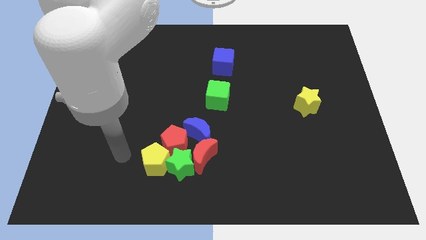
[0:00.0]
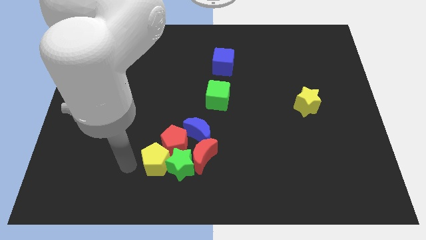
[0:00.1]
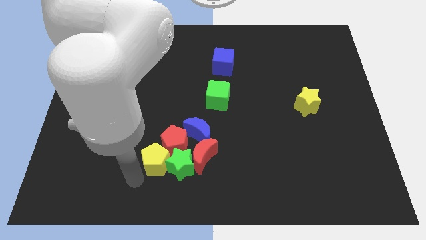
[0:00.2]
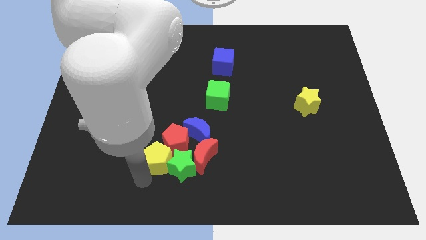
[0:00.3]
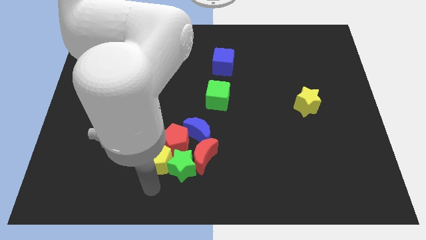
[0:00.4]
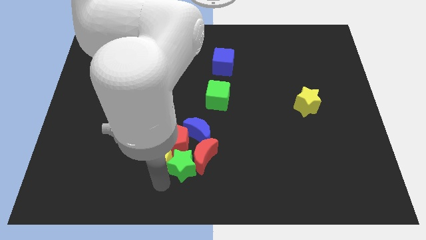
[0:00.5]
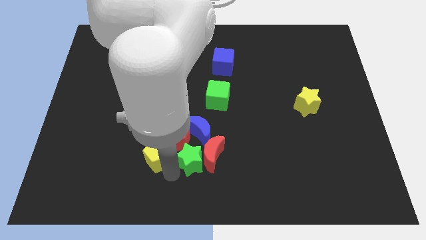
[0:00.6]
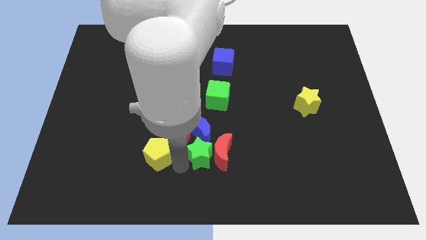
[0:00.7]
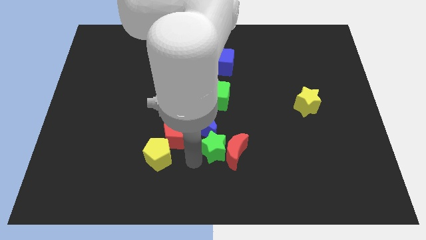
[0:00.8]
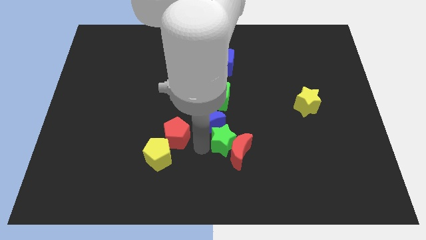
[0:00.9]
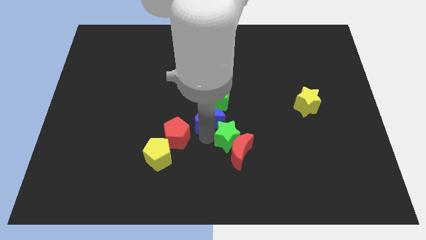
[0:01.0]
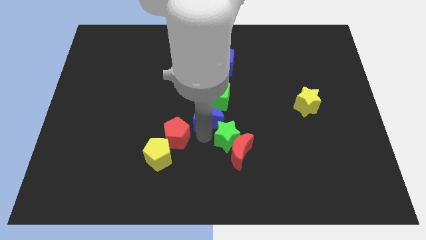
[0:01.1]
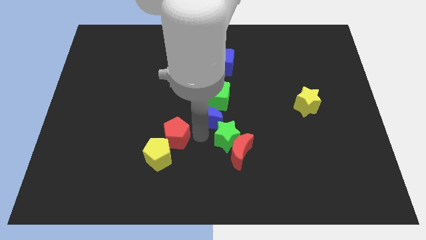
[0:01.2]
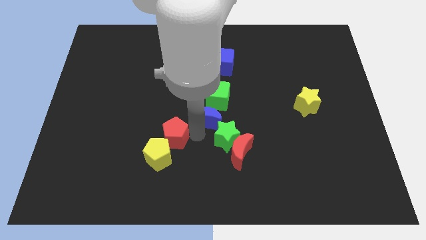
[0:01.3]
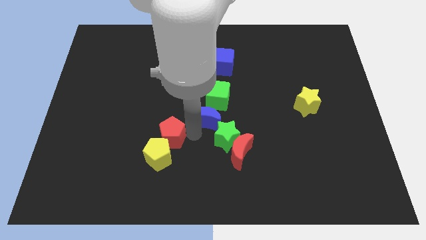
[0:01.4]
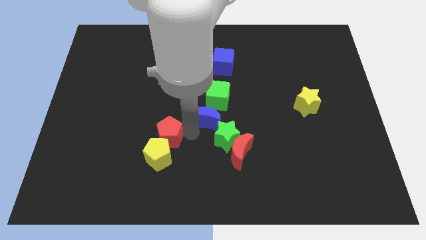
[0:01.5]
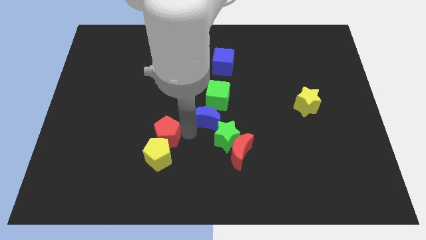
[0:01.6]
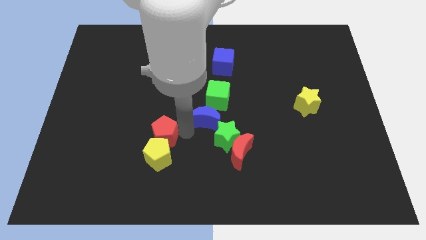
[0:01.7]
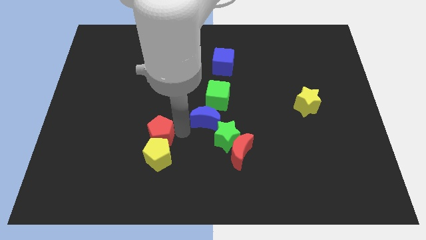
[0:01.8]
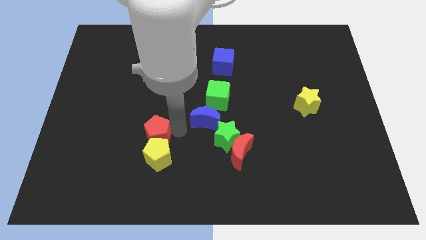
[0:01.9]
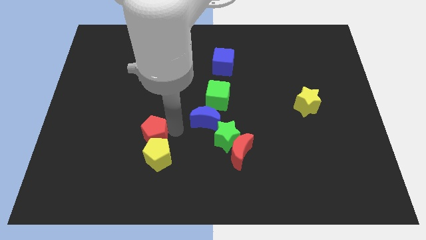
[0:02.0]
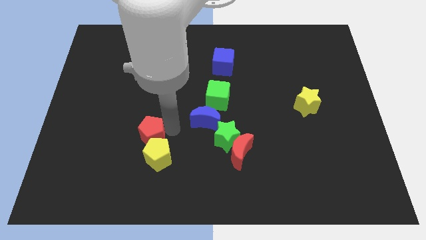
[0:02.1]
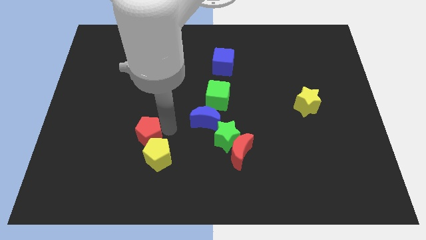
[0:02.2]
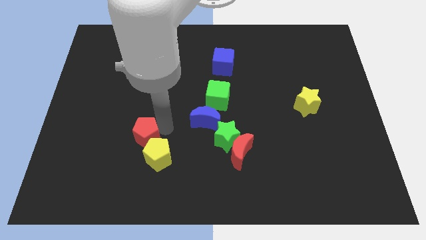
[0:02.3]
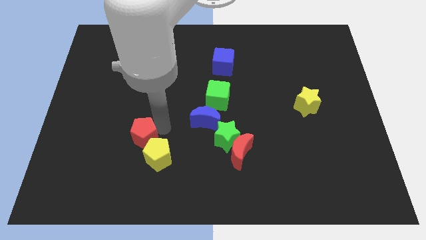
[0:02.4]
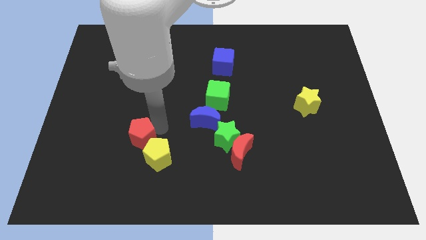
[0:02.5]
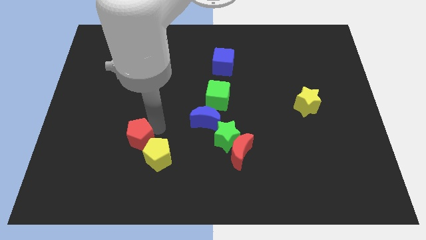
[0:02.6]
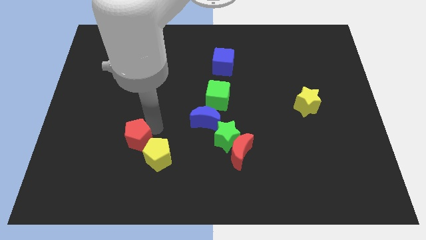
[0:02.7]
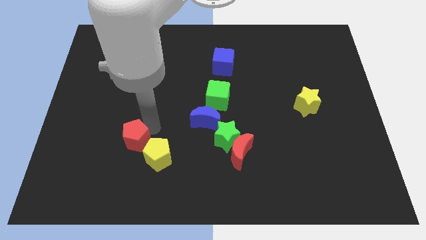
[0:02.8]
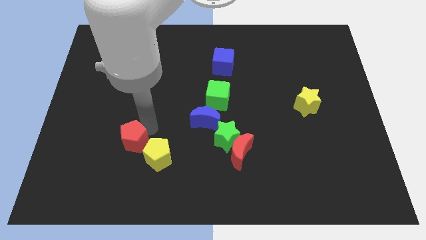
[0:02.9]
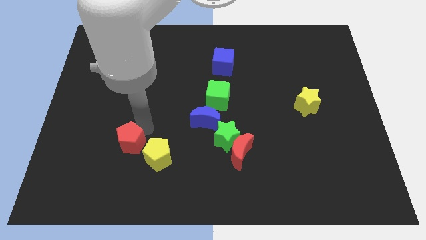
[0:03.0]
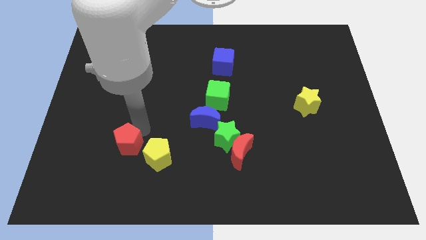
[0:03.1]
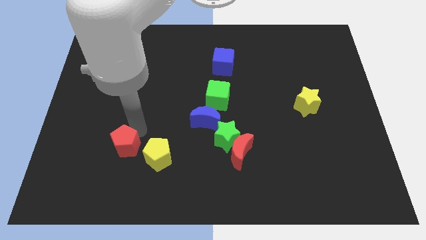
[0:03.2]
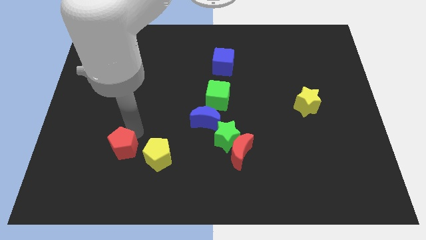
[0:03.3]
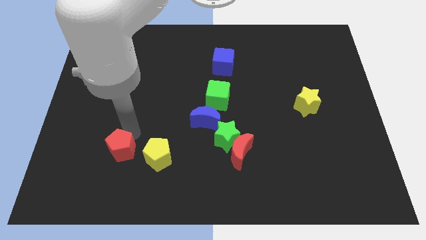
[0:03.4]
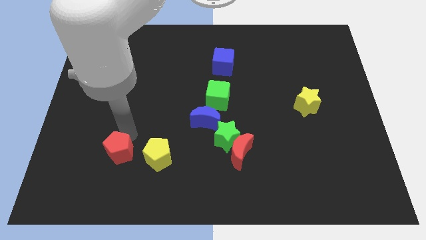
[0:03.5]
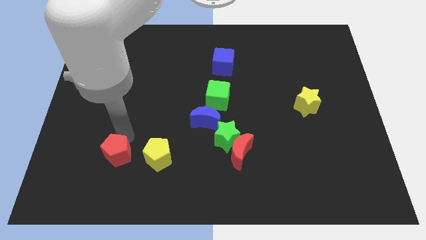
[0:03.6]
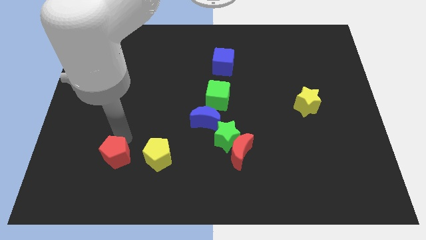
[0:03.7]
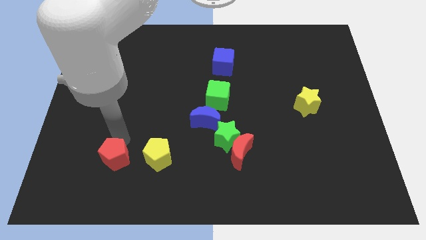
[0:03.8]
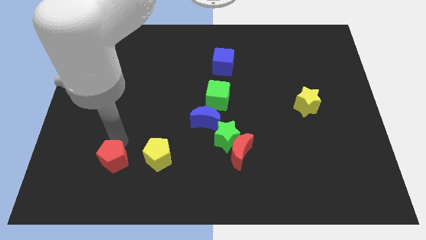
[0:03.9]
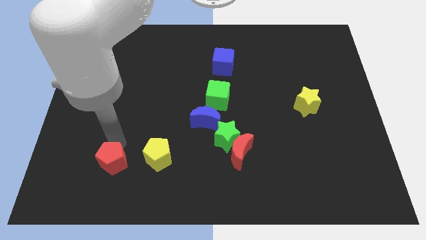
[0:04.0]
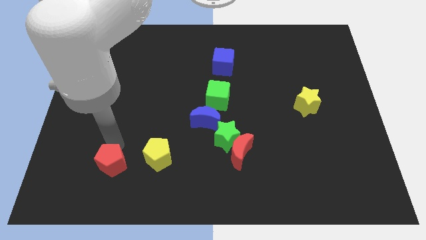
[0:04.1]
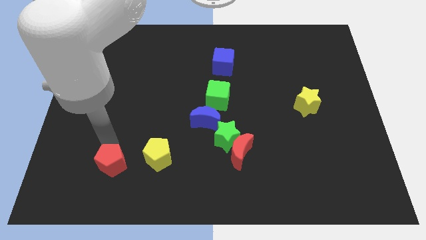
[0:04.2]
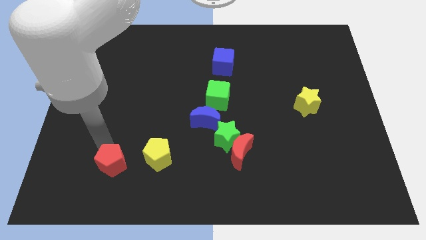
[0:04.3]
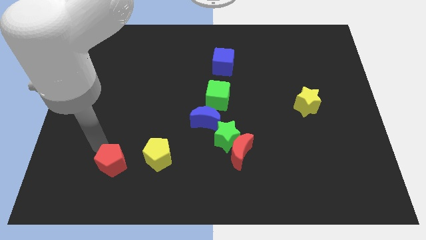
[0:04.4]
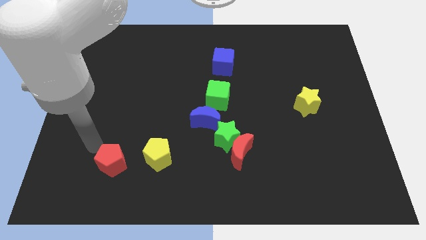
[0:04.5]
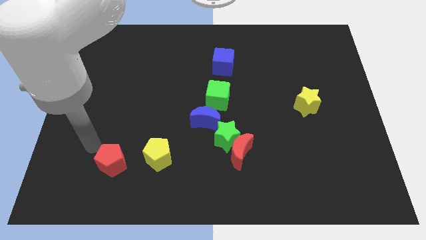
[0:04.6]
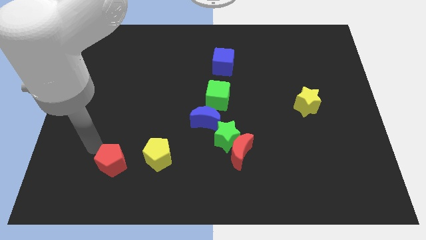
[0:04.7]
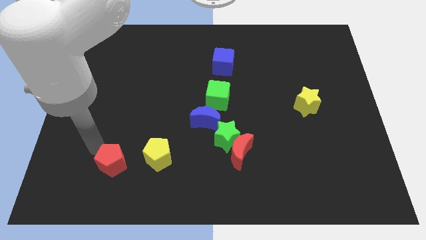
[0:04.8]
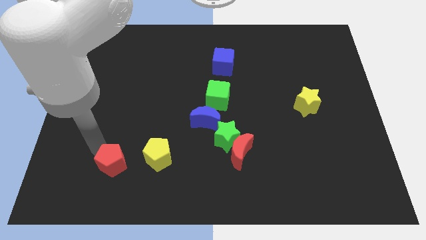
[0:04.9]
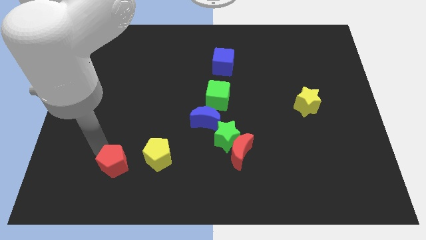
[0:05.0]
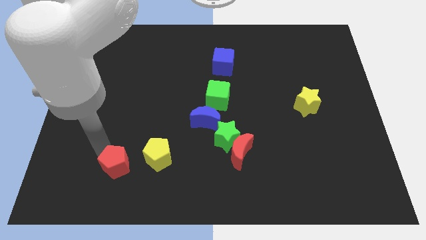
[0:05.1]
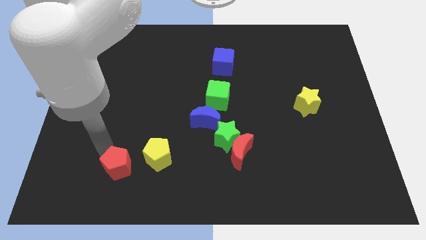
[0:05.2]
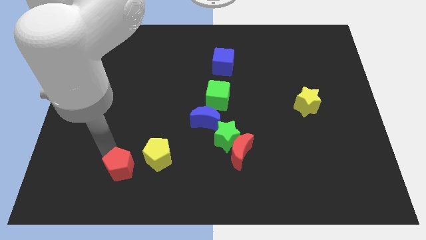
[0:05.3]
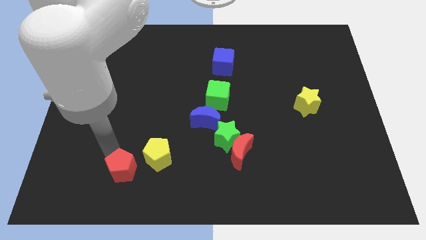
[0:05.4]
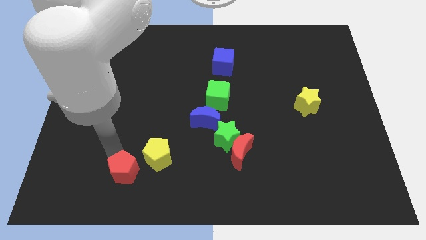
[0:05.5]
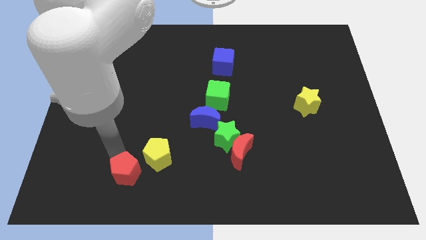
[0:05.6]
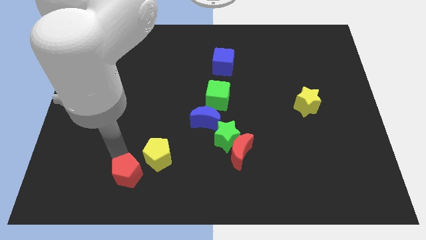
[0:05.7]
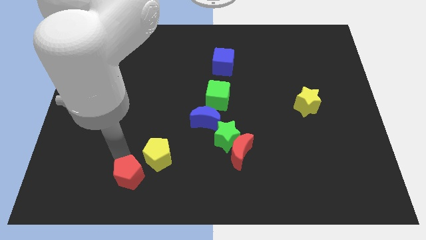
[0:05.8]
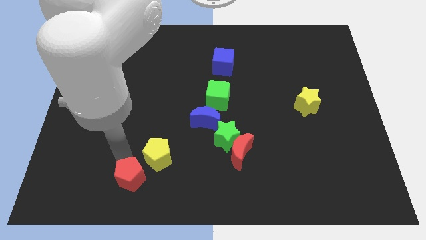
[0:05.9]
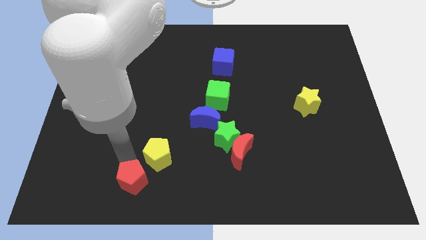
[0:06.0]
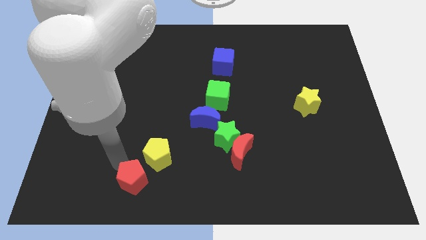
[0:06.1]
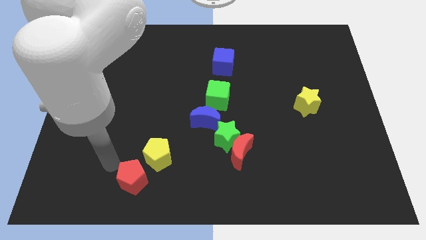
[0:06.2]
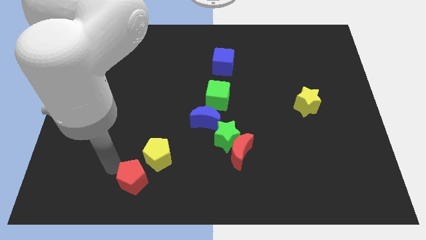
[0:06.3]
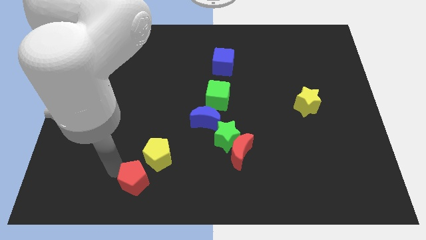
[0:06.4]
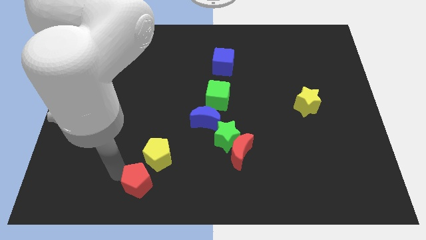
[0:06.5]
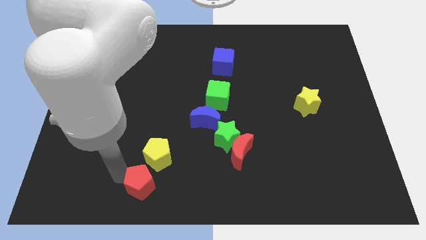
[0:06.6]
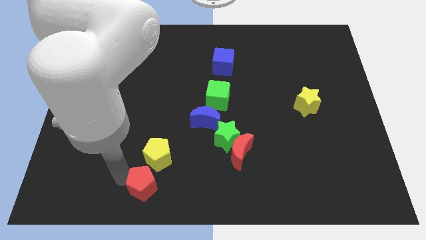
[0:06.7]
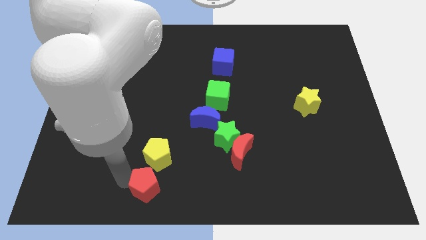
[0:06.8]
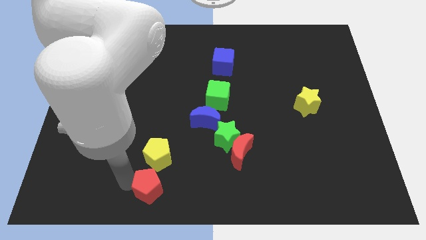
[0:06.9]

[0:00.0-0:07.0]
slide the red pentagon to the bottom side
